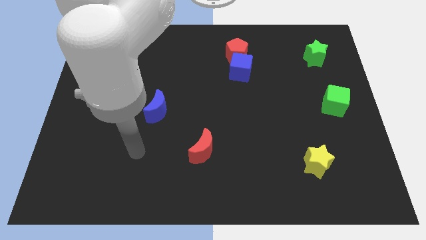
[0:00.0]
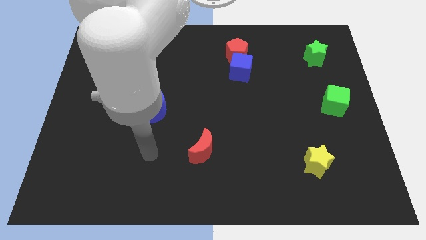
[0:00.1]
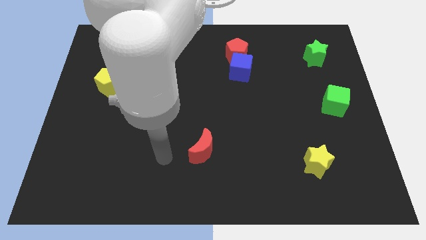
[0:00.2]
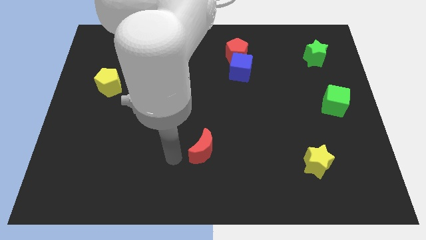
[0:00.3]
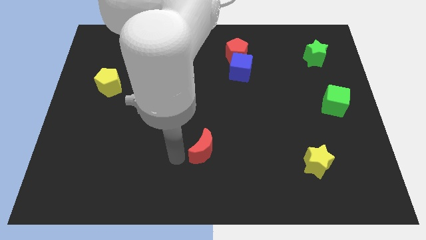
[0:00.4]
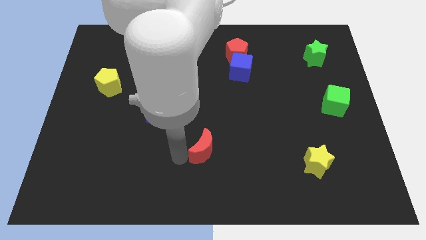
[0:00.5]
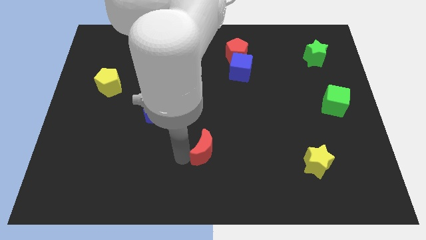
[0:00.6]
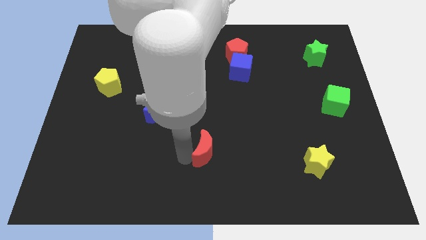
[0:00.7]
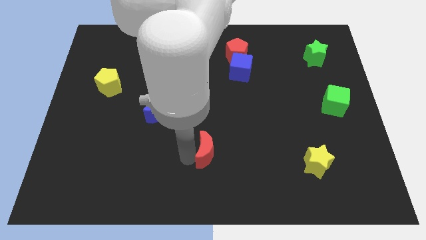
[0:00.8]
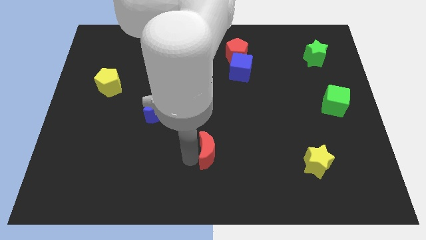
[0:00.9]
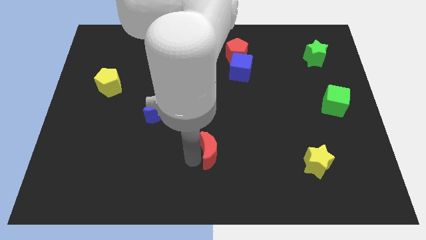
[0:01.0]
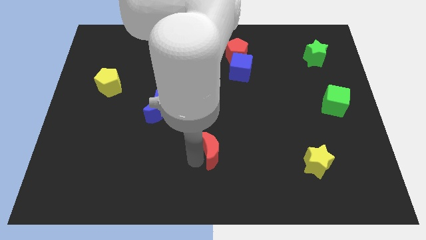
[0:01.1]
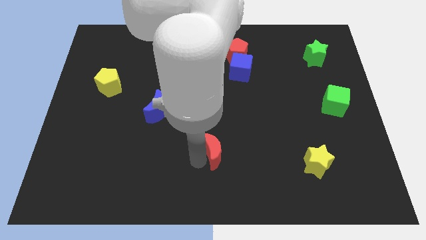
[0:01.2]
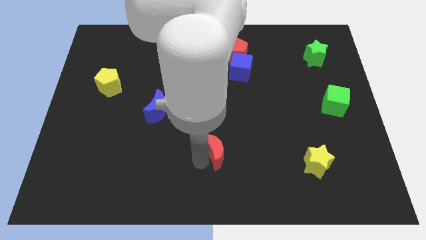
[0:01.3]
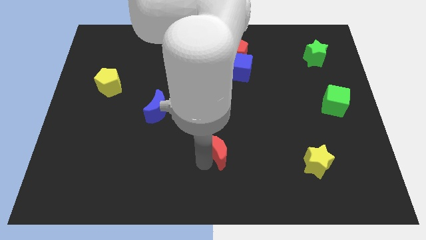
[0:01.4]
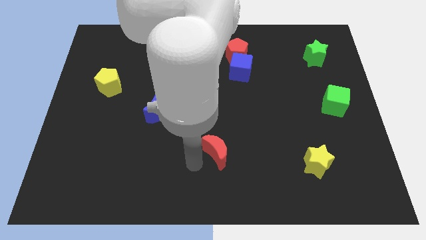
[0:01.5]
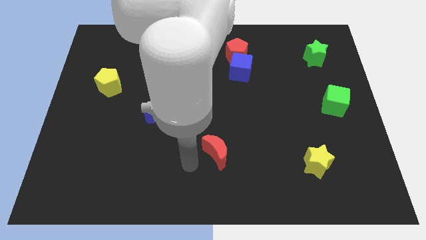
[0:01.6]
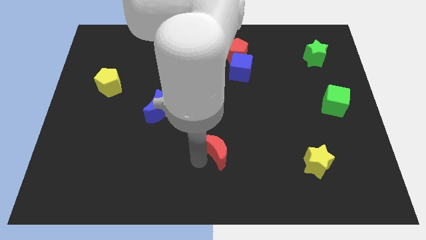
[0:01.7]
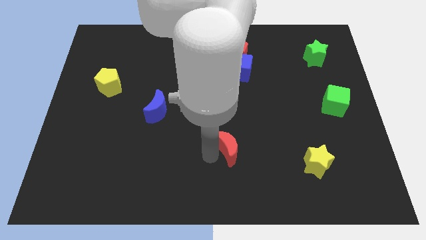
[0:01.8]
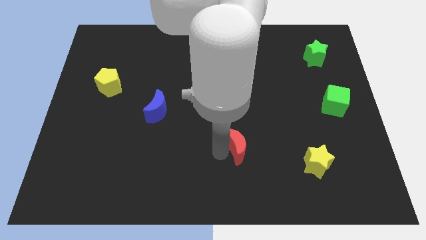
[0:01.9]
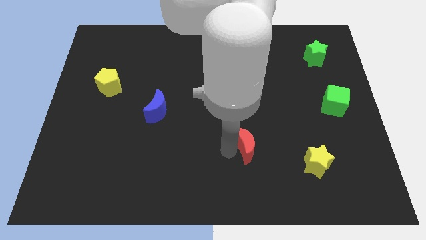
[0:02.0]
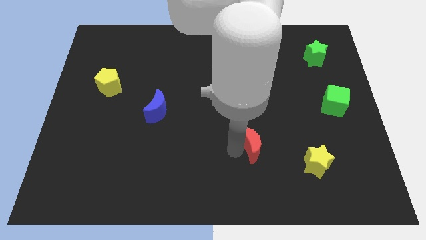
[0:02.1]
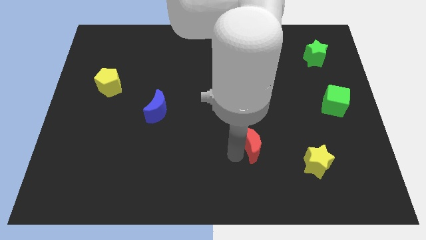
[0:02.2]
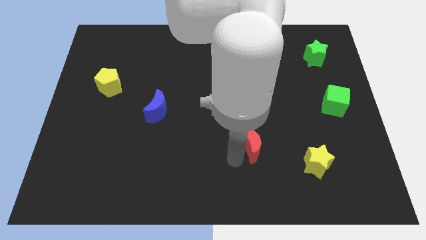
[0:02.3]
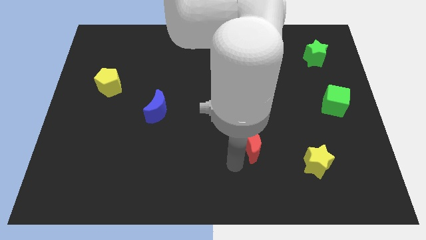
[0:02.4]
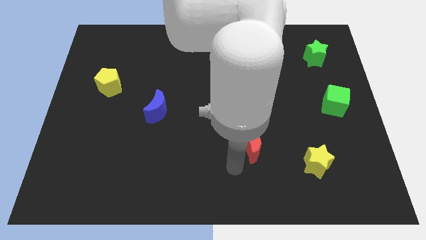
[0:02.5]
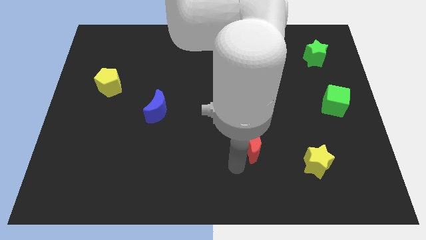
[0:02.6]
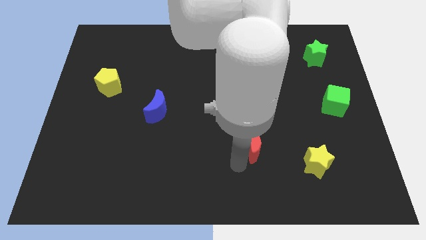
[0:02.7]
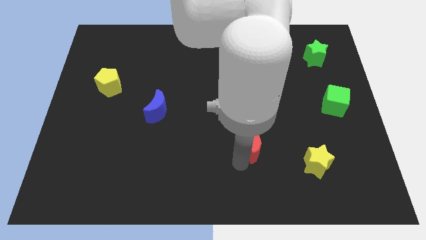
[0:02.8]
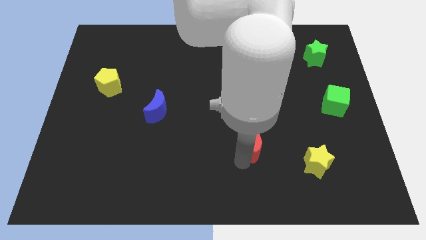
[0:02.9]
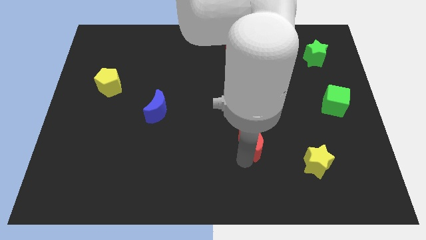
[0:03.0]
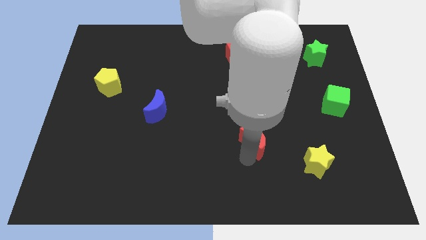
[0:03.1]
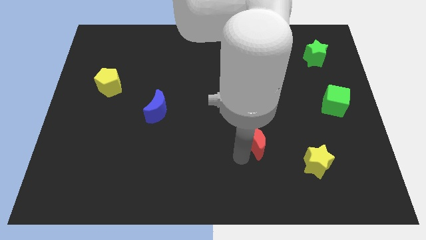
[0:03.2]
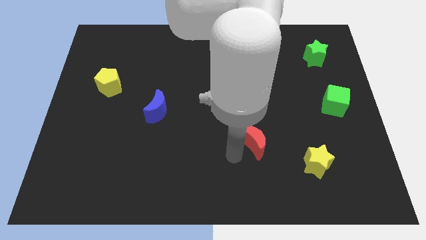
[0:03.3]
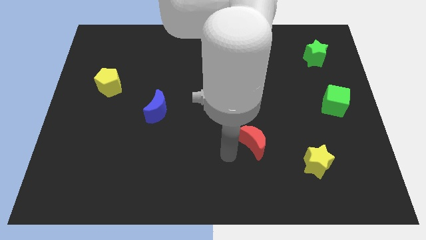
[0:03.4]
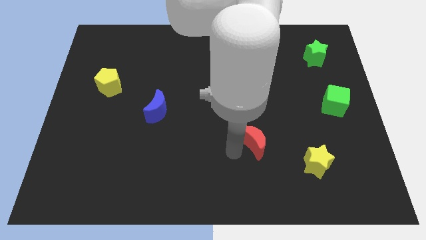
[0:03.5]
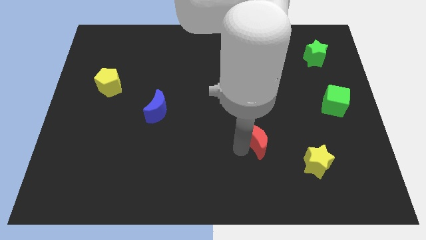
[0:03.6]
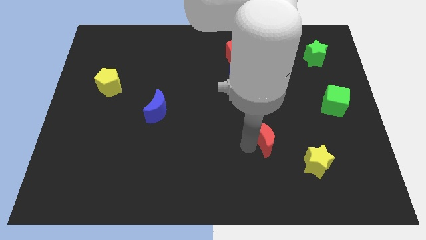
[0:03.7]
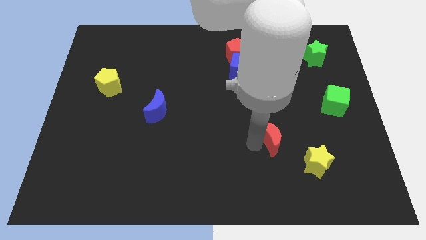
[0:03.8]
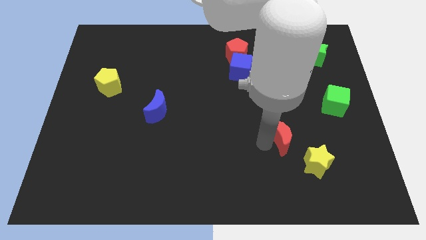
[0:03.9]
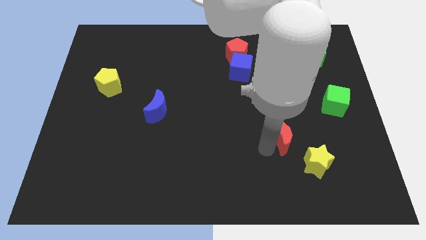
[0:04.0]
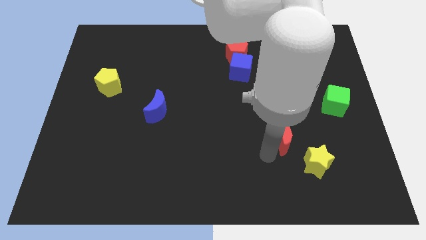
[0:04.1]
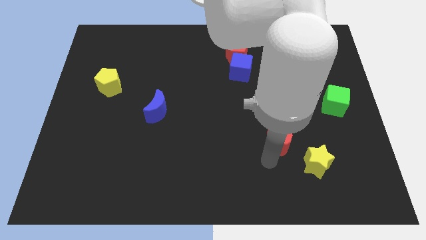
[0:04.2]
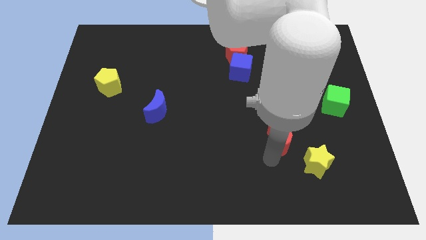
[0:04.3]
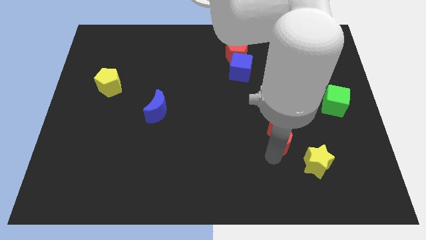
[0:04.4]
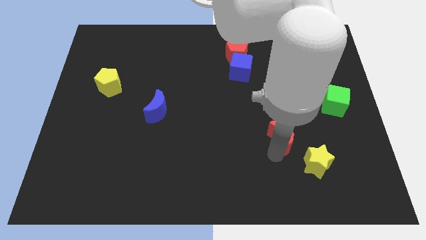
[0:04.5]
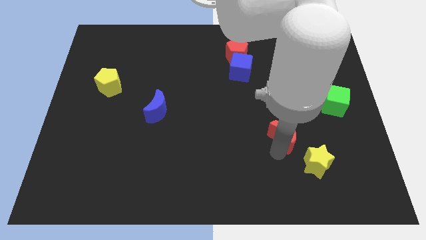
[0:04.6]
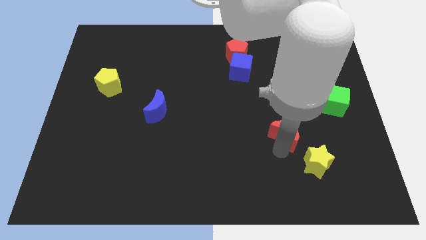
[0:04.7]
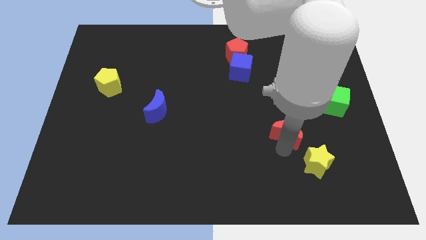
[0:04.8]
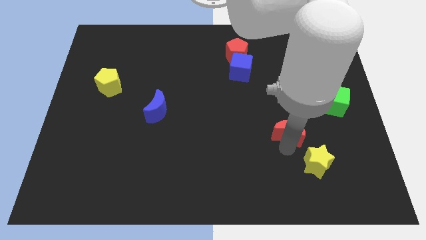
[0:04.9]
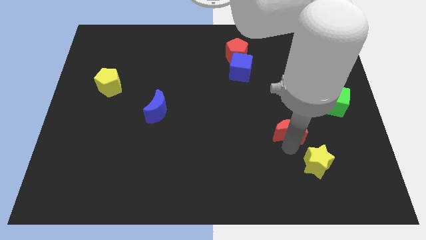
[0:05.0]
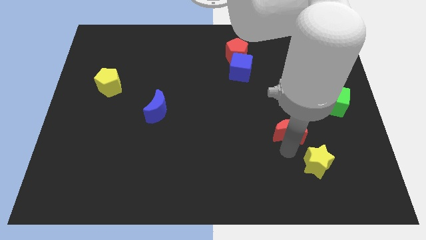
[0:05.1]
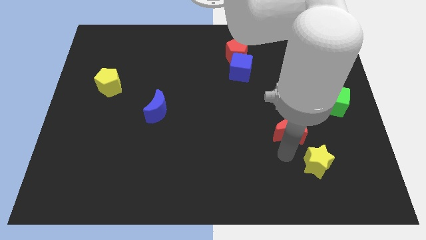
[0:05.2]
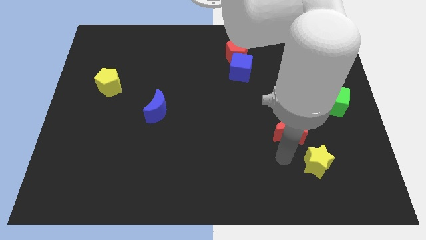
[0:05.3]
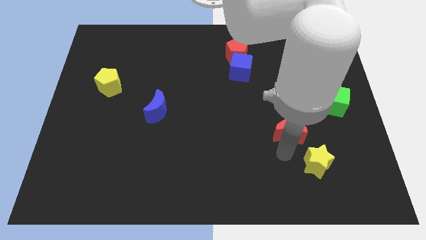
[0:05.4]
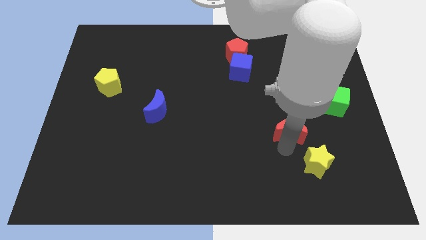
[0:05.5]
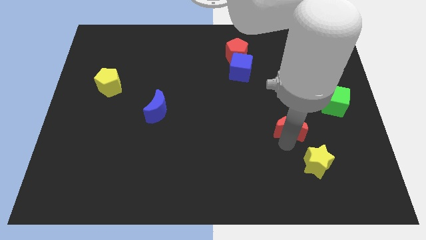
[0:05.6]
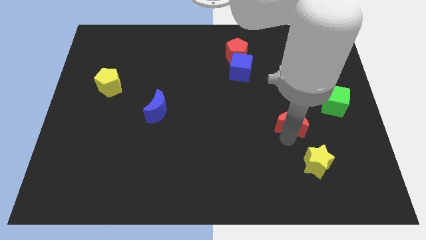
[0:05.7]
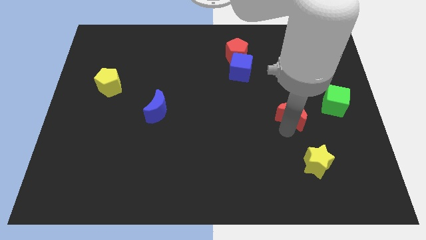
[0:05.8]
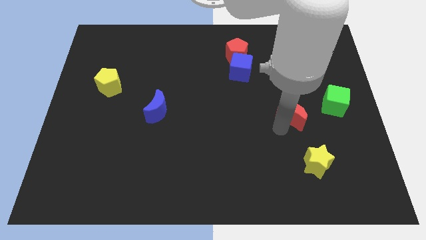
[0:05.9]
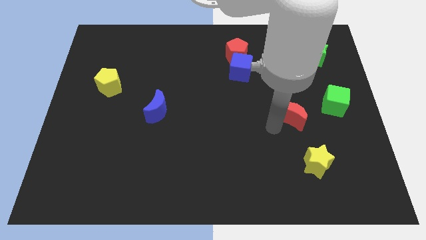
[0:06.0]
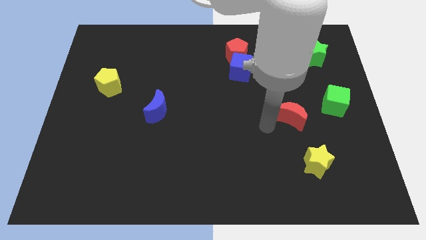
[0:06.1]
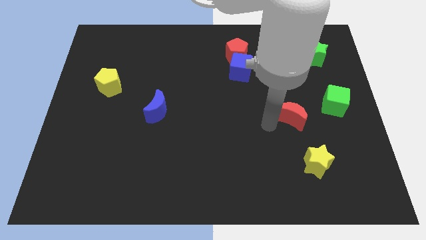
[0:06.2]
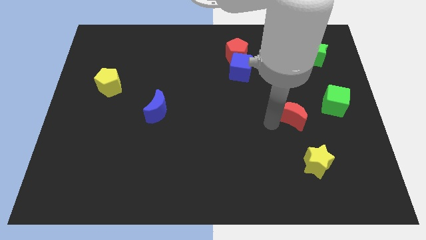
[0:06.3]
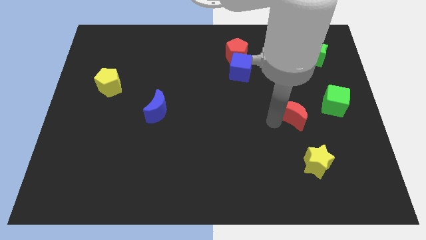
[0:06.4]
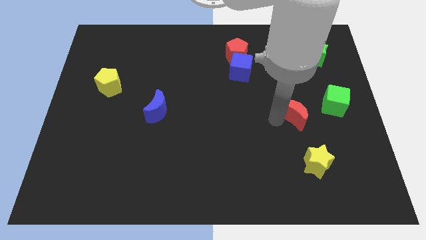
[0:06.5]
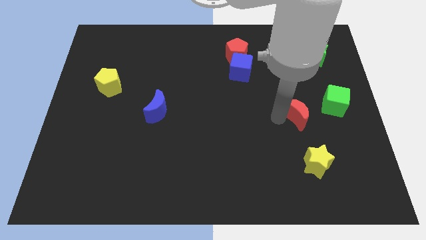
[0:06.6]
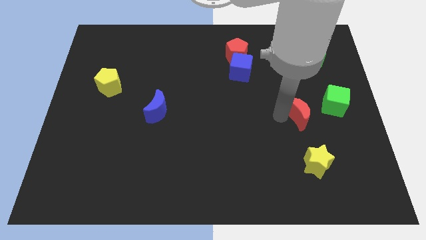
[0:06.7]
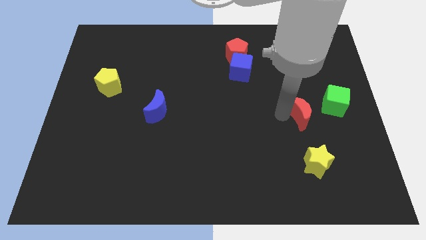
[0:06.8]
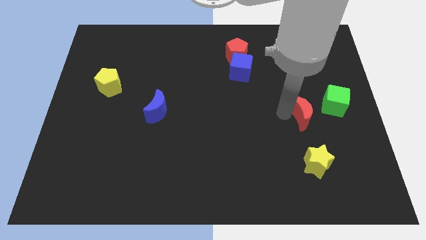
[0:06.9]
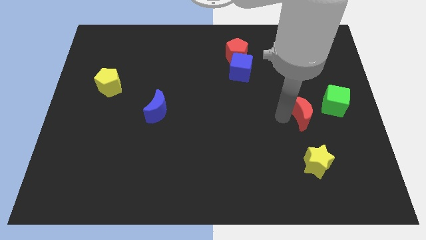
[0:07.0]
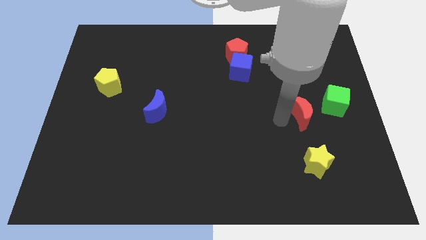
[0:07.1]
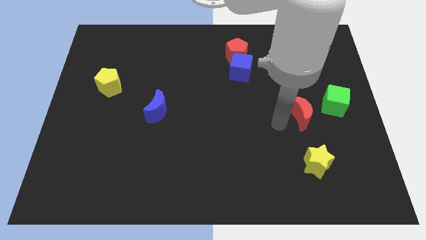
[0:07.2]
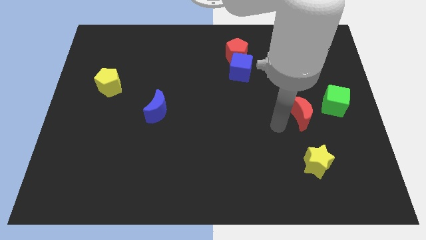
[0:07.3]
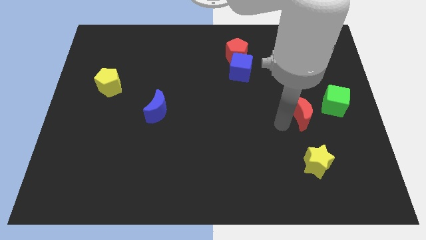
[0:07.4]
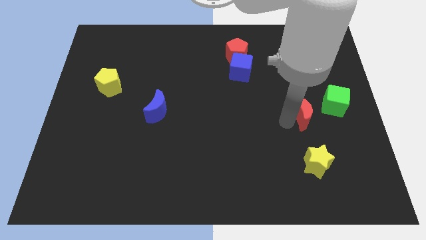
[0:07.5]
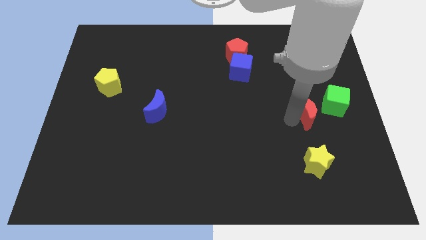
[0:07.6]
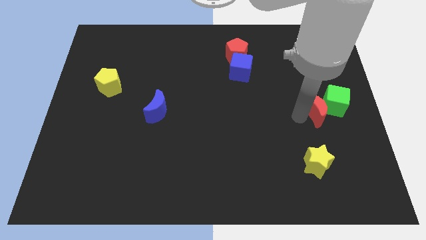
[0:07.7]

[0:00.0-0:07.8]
move the red moon to the green cube
